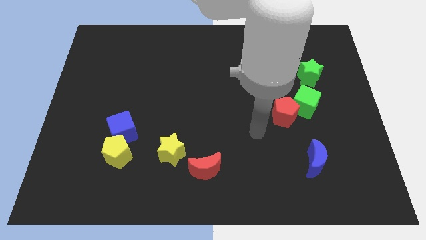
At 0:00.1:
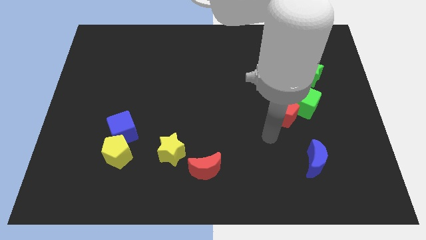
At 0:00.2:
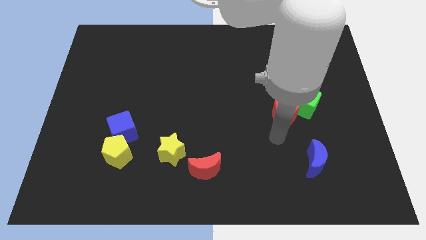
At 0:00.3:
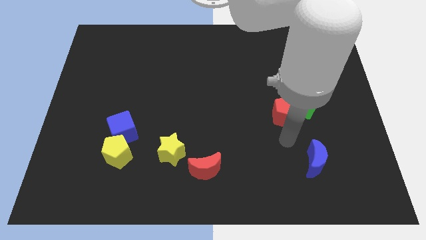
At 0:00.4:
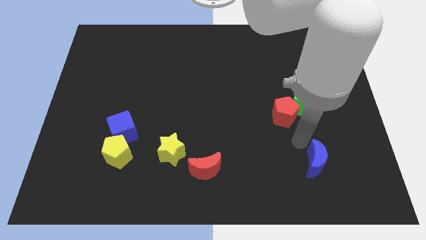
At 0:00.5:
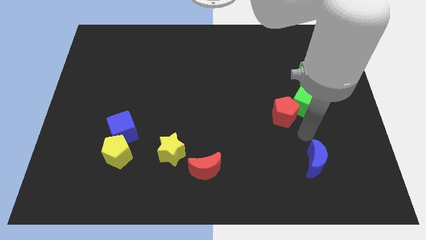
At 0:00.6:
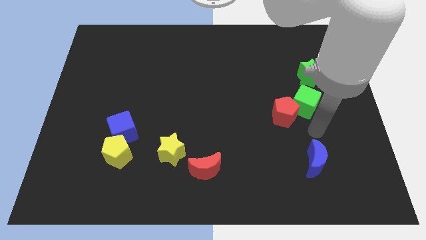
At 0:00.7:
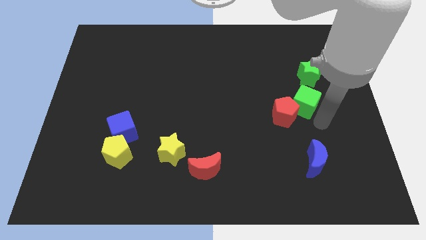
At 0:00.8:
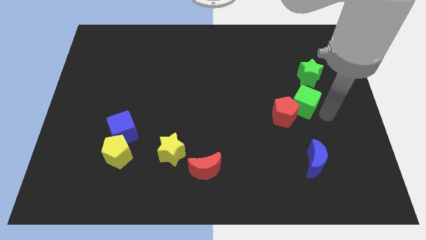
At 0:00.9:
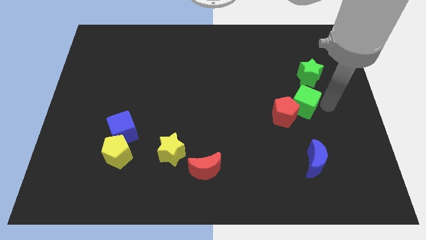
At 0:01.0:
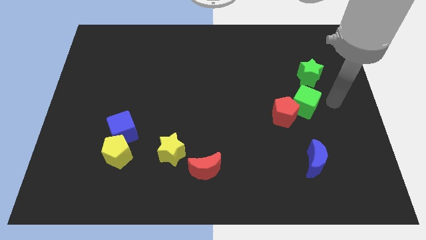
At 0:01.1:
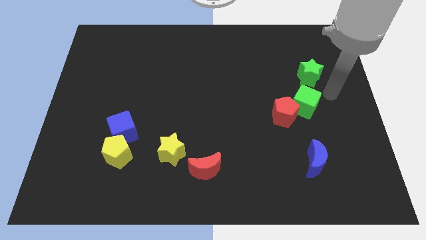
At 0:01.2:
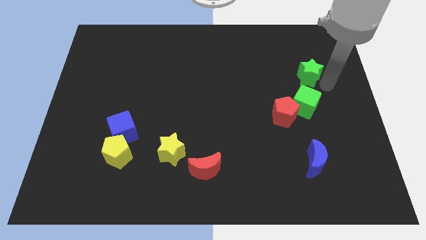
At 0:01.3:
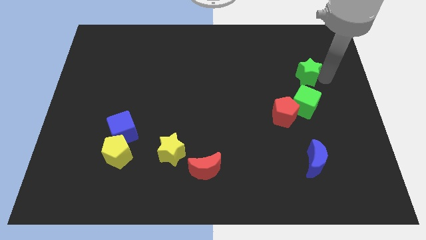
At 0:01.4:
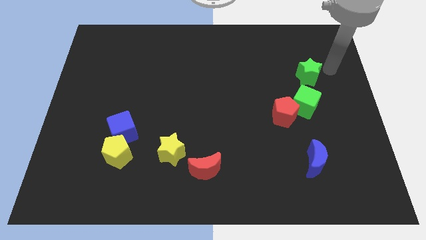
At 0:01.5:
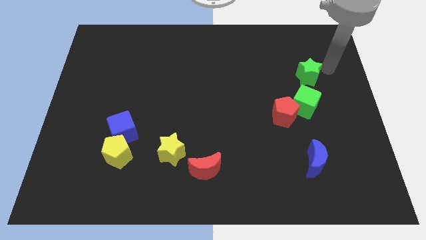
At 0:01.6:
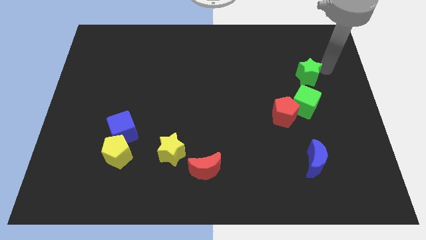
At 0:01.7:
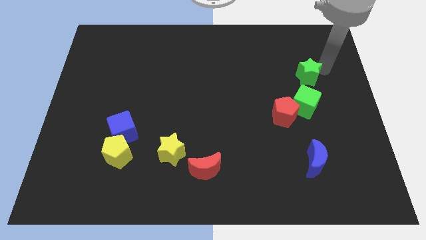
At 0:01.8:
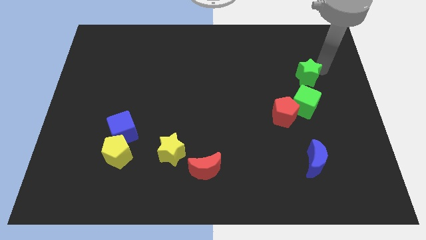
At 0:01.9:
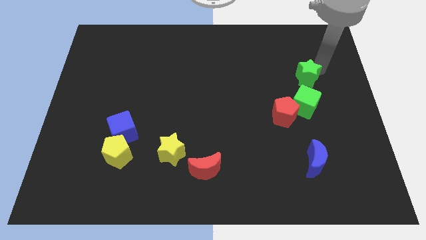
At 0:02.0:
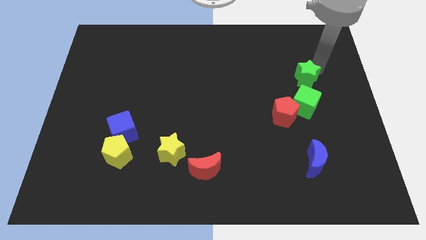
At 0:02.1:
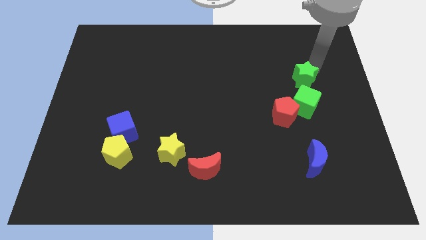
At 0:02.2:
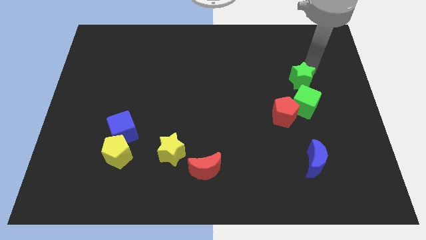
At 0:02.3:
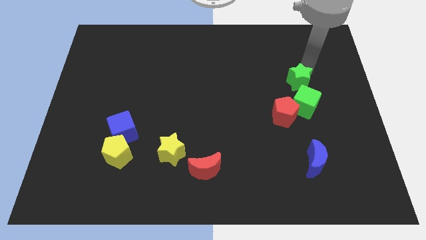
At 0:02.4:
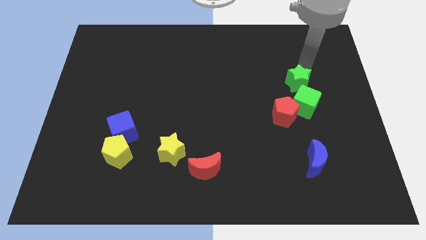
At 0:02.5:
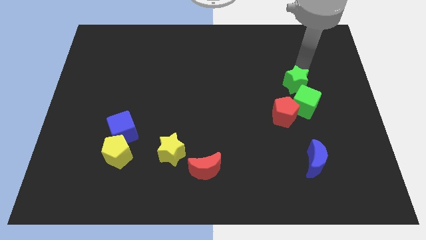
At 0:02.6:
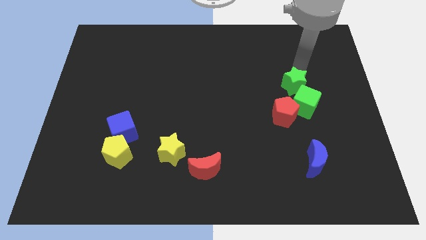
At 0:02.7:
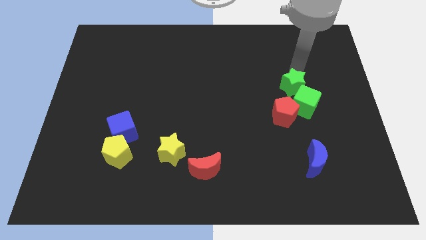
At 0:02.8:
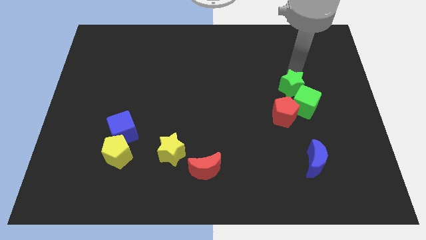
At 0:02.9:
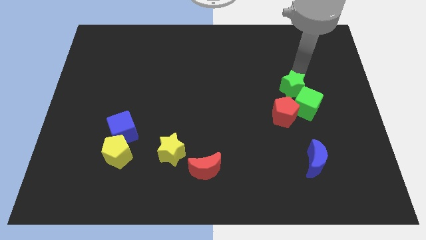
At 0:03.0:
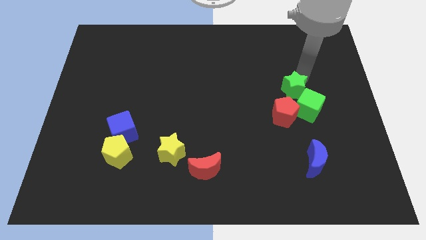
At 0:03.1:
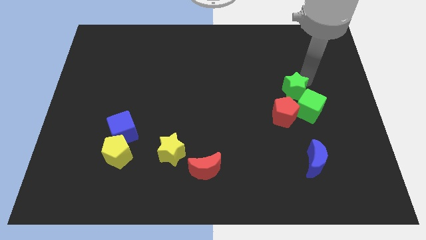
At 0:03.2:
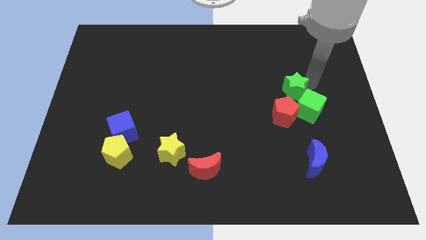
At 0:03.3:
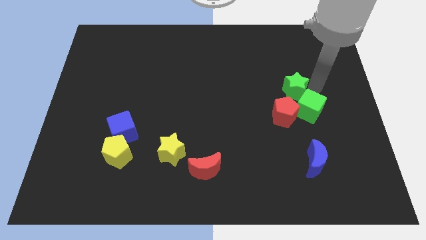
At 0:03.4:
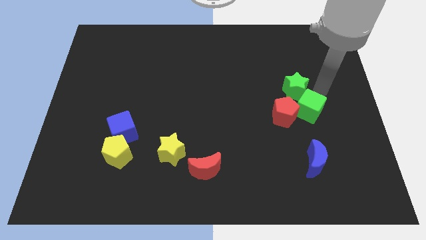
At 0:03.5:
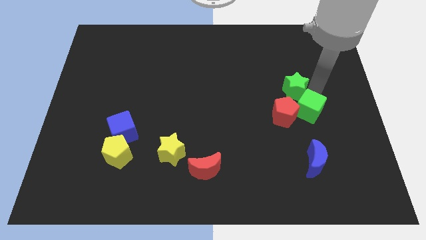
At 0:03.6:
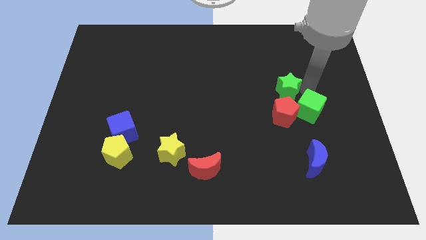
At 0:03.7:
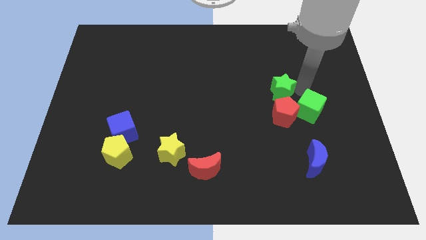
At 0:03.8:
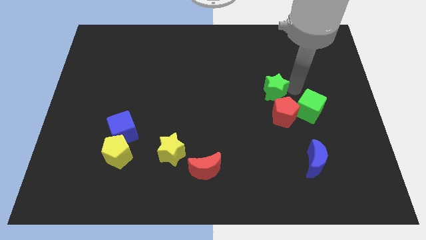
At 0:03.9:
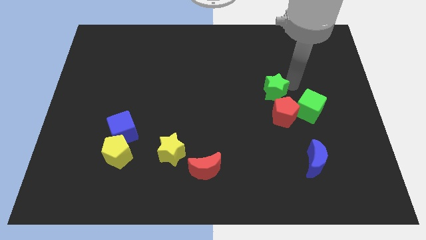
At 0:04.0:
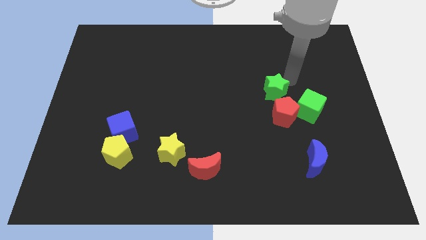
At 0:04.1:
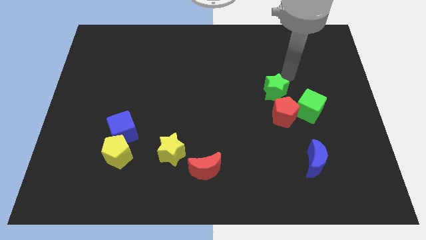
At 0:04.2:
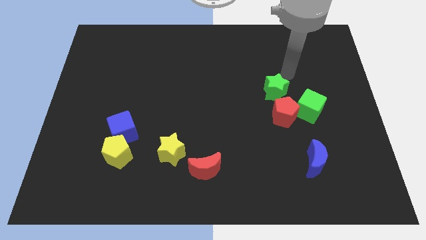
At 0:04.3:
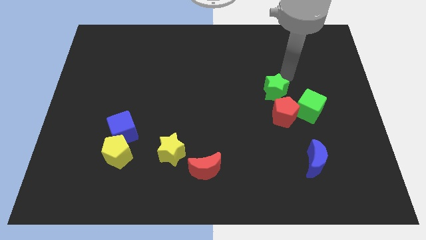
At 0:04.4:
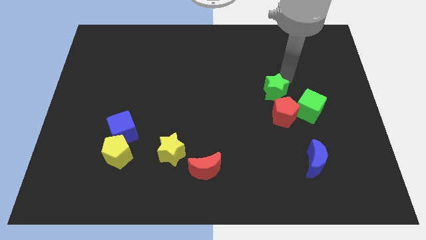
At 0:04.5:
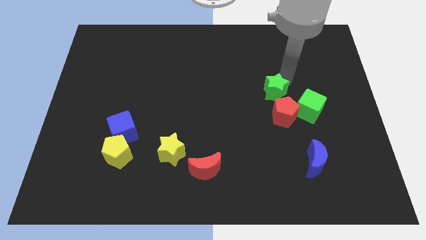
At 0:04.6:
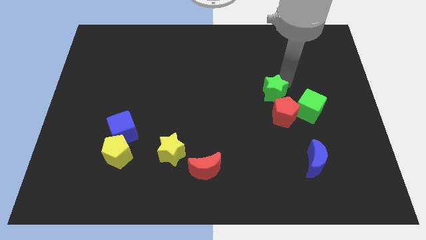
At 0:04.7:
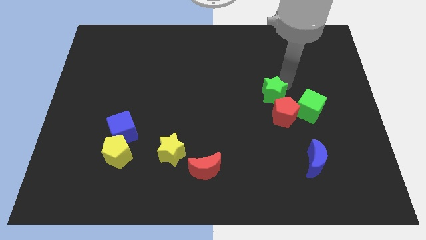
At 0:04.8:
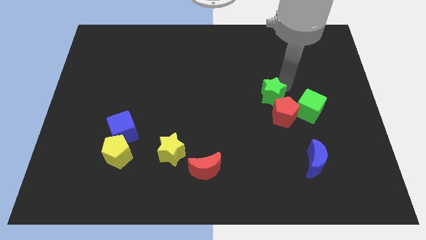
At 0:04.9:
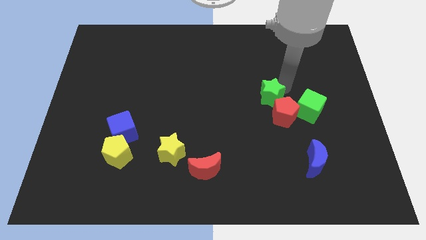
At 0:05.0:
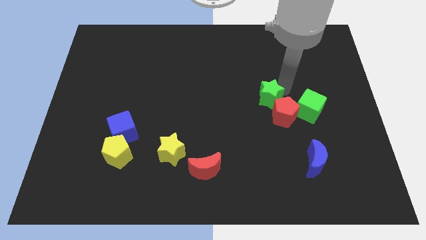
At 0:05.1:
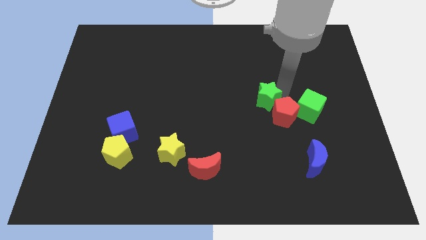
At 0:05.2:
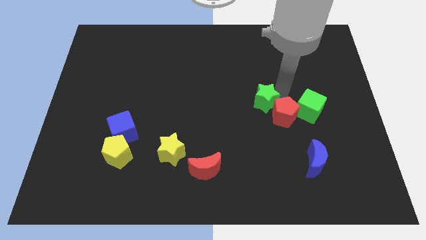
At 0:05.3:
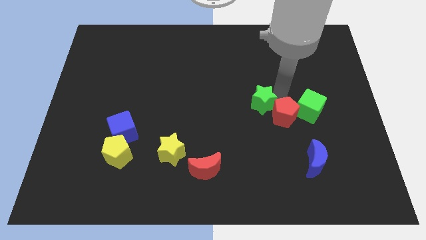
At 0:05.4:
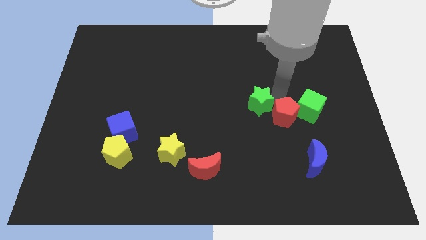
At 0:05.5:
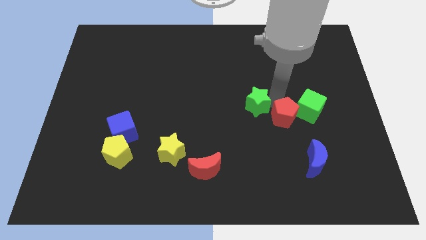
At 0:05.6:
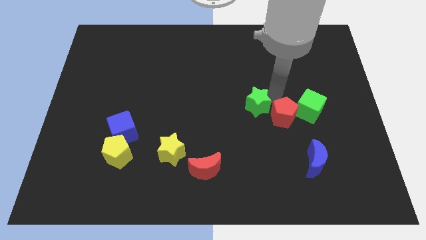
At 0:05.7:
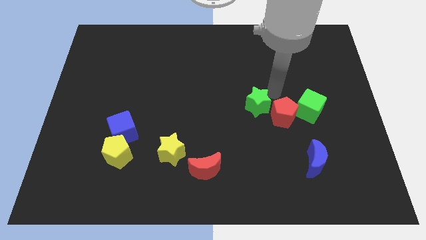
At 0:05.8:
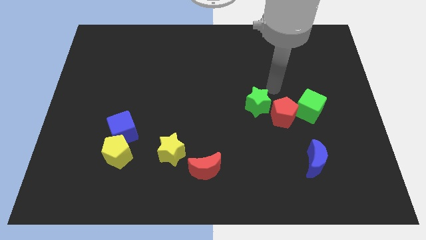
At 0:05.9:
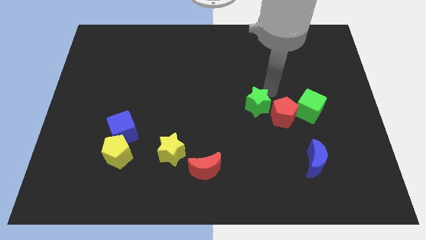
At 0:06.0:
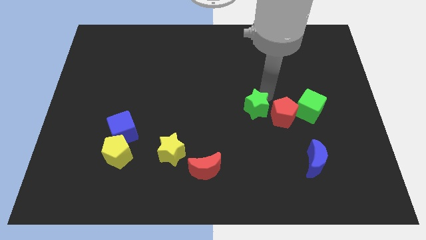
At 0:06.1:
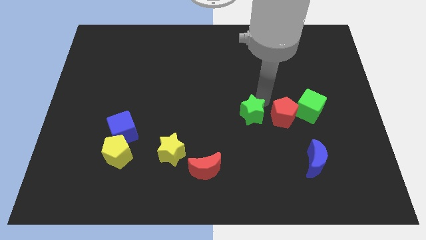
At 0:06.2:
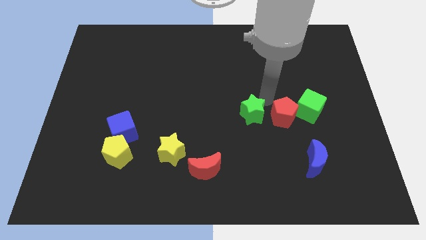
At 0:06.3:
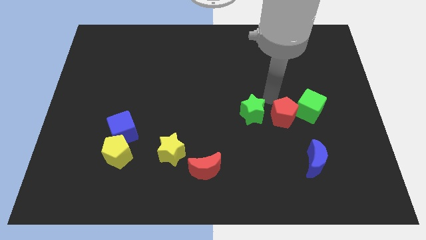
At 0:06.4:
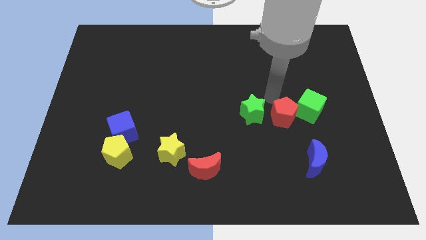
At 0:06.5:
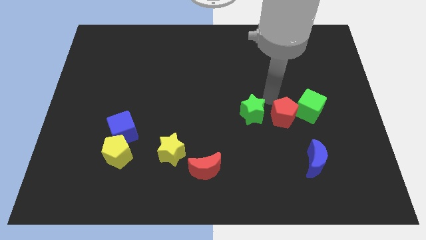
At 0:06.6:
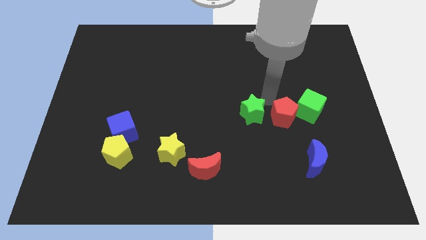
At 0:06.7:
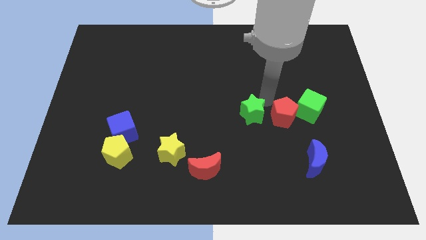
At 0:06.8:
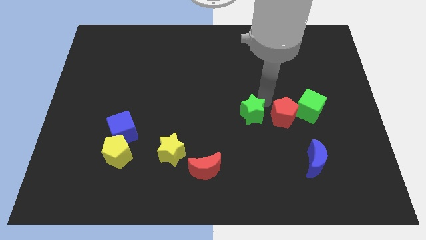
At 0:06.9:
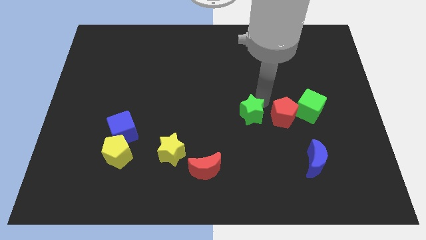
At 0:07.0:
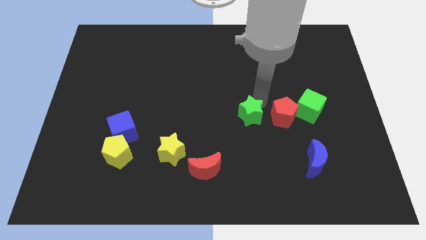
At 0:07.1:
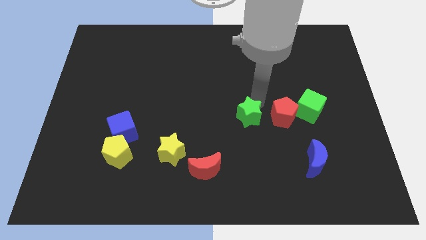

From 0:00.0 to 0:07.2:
slide the green star down and left diagonally

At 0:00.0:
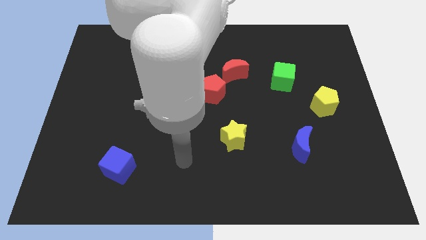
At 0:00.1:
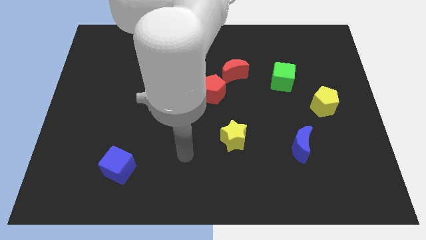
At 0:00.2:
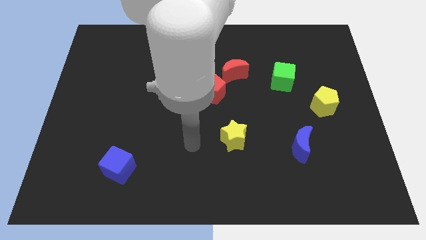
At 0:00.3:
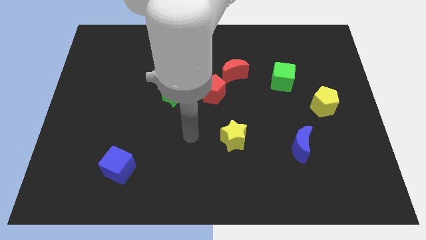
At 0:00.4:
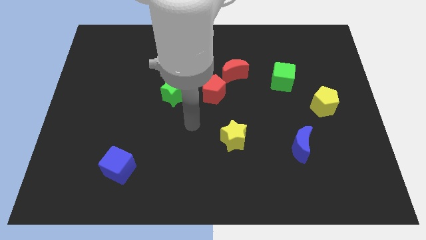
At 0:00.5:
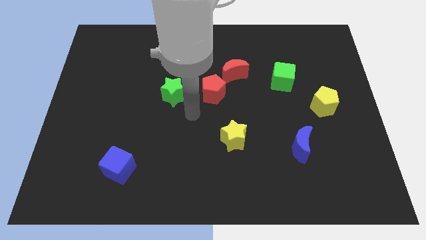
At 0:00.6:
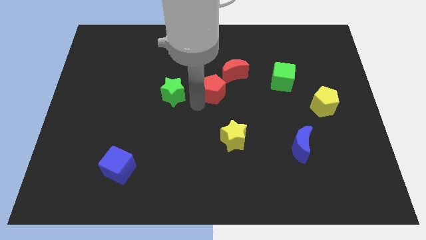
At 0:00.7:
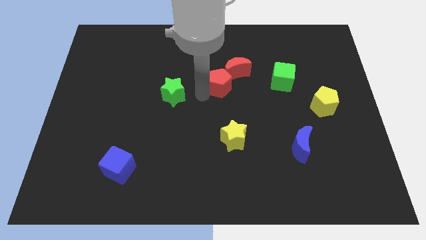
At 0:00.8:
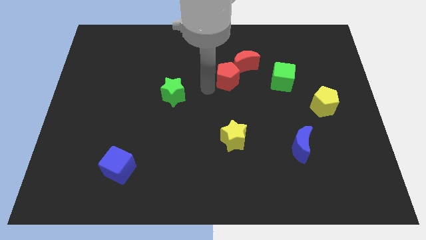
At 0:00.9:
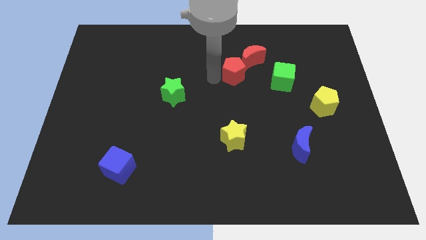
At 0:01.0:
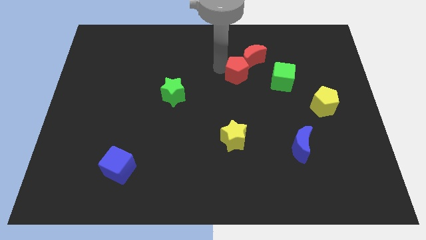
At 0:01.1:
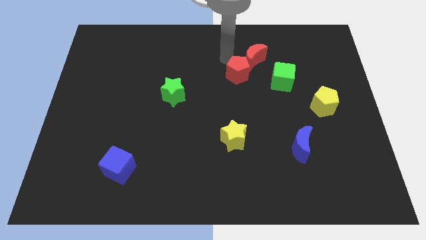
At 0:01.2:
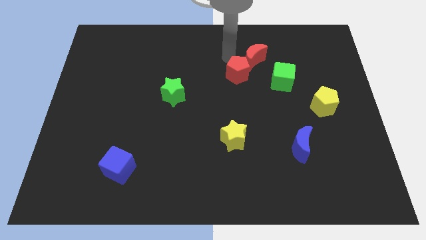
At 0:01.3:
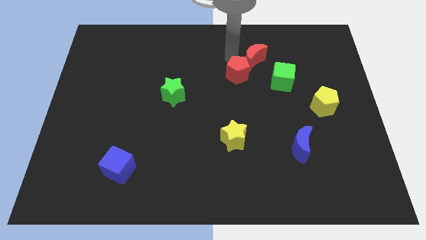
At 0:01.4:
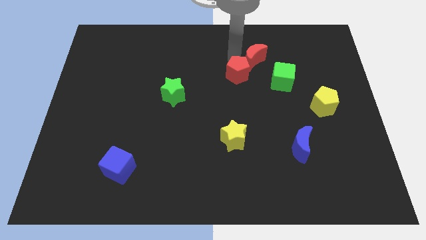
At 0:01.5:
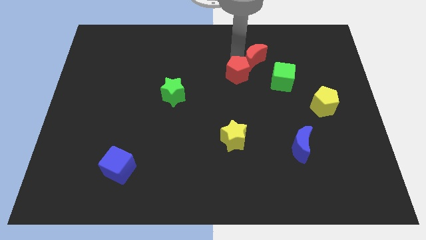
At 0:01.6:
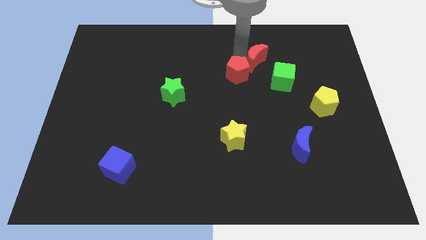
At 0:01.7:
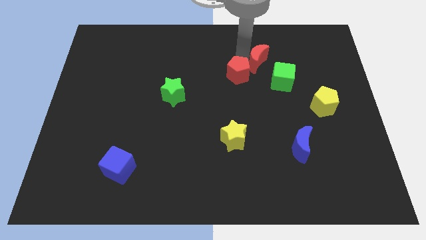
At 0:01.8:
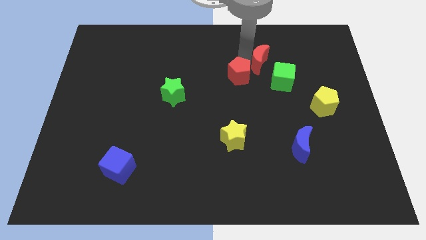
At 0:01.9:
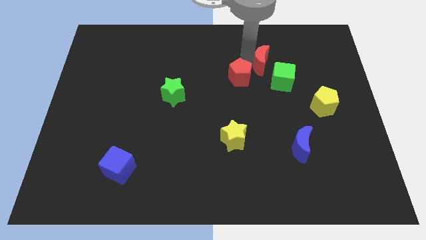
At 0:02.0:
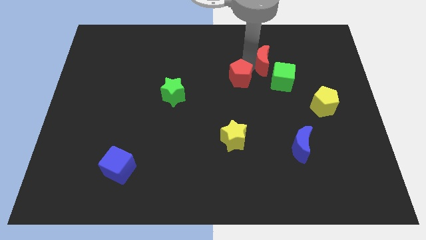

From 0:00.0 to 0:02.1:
slightly push the red moon right
